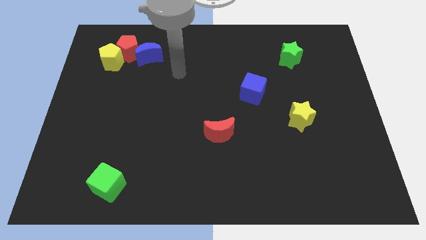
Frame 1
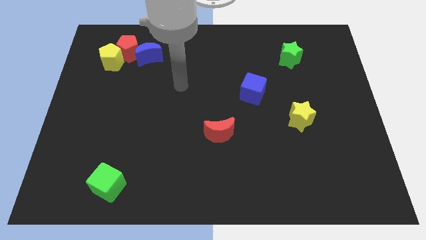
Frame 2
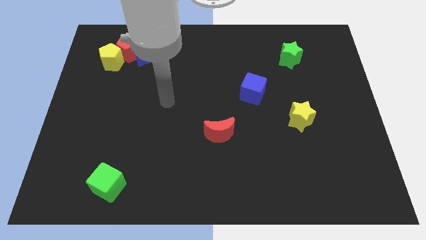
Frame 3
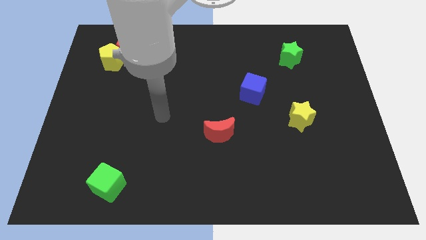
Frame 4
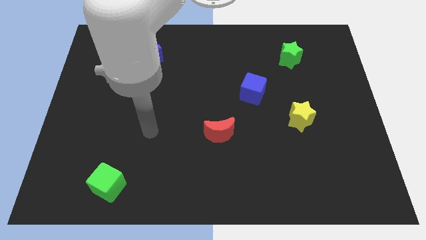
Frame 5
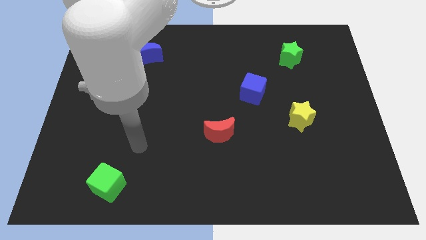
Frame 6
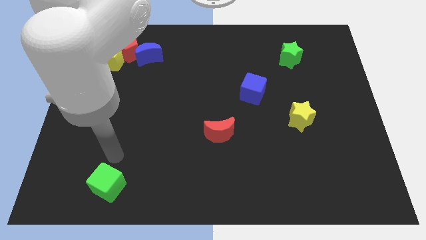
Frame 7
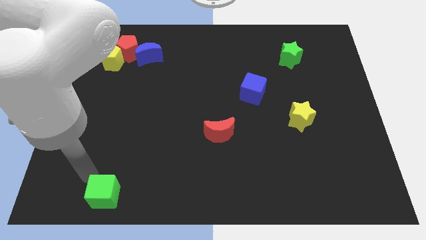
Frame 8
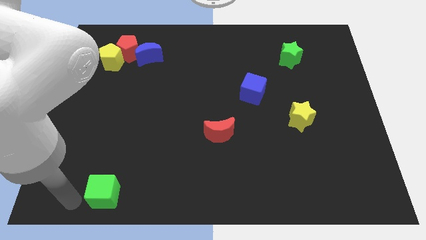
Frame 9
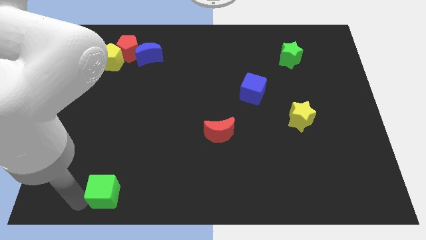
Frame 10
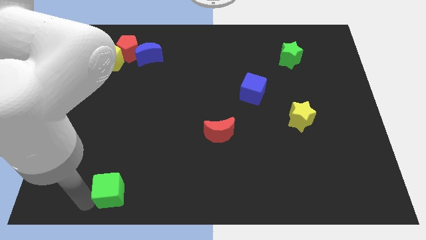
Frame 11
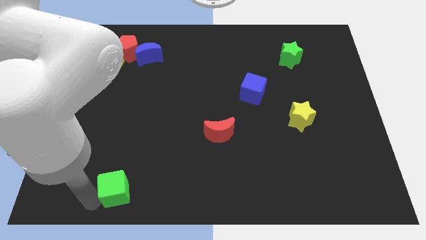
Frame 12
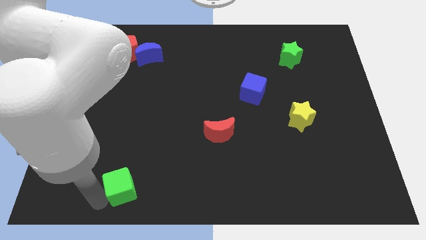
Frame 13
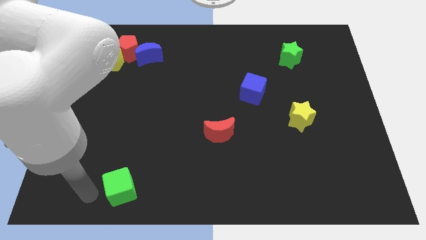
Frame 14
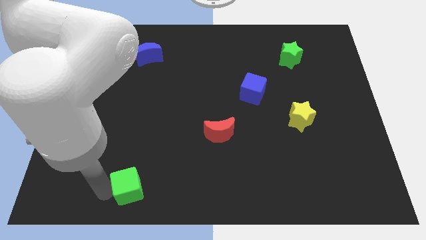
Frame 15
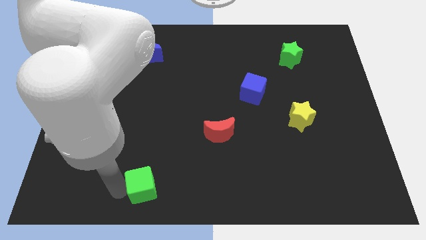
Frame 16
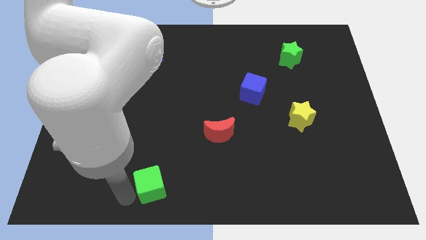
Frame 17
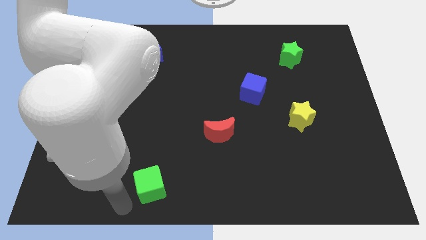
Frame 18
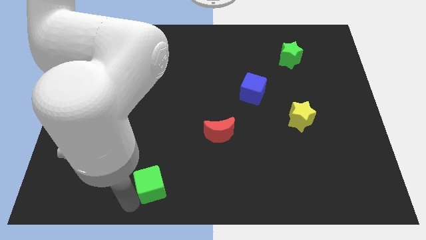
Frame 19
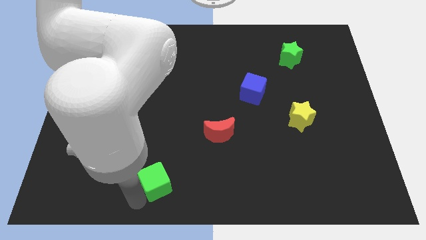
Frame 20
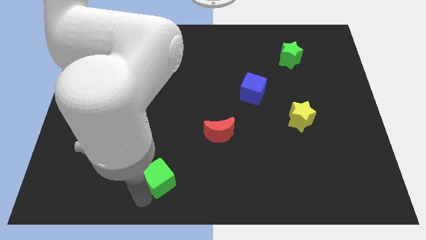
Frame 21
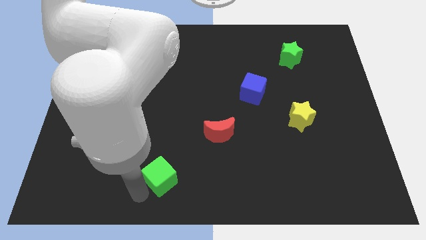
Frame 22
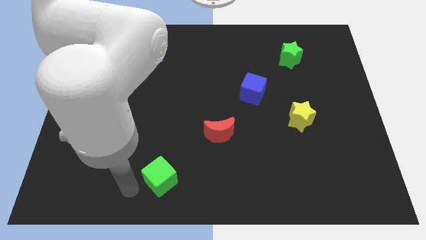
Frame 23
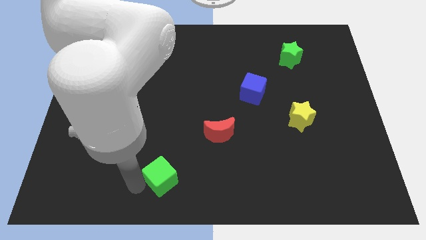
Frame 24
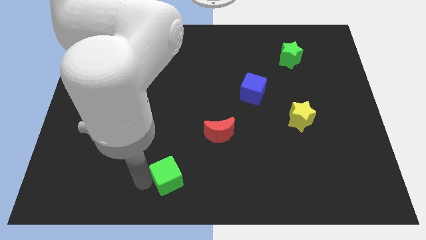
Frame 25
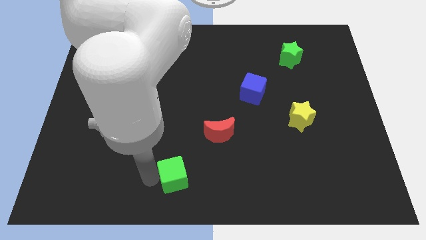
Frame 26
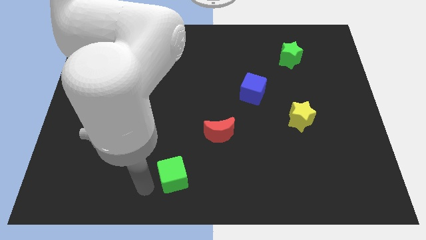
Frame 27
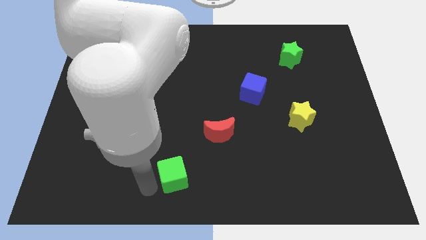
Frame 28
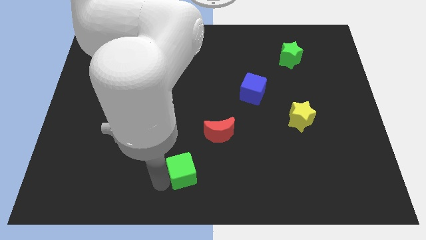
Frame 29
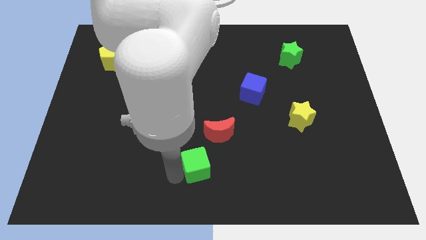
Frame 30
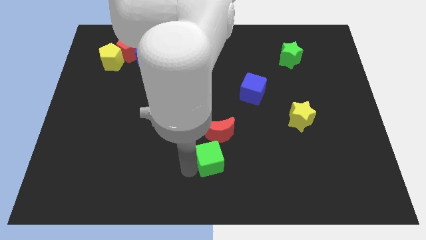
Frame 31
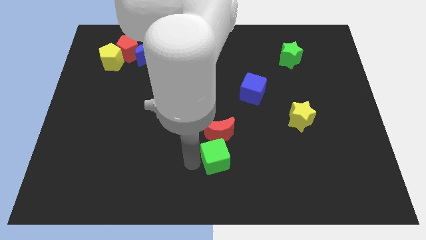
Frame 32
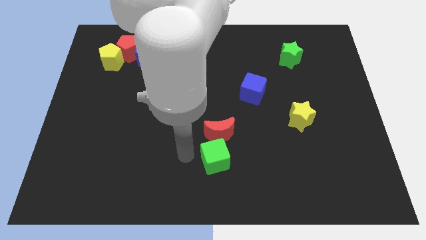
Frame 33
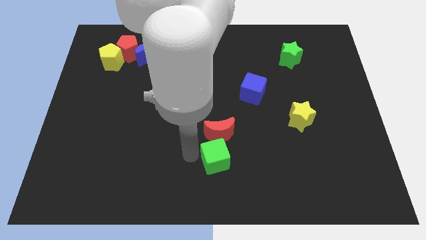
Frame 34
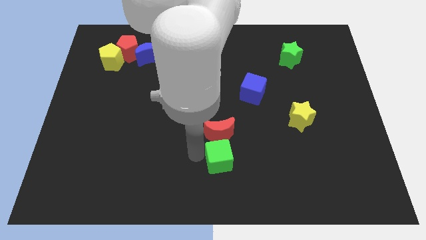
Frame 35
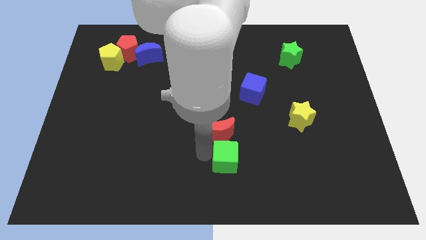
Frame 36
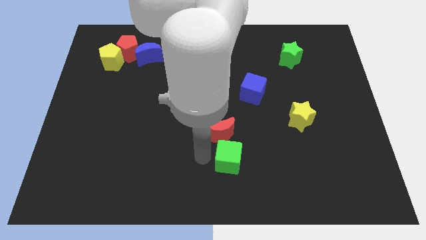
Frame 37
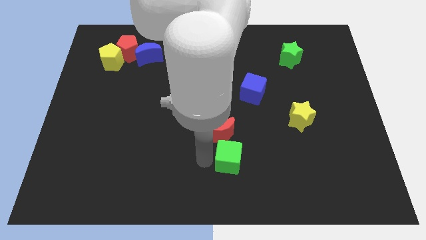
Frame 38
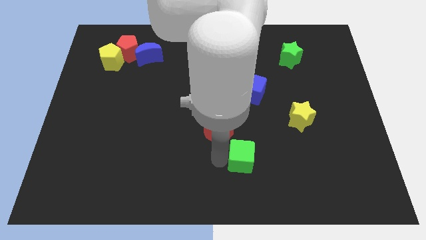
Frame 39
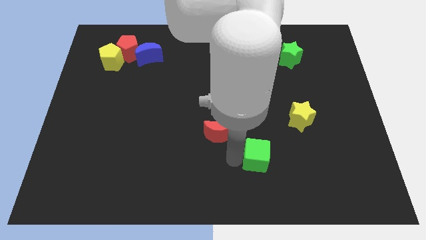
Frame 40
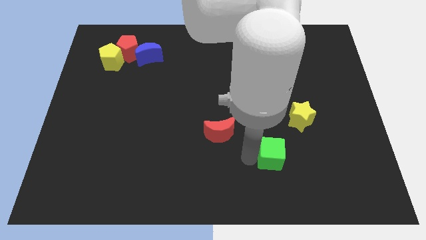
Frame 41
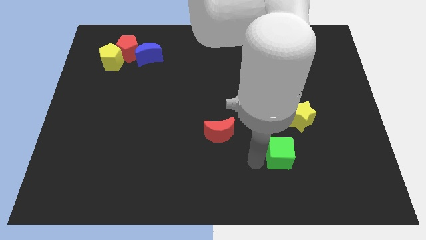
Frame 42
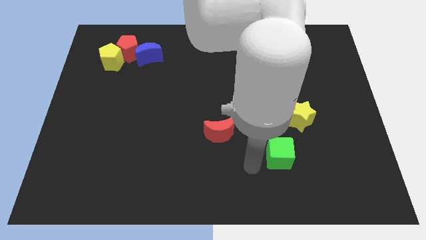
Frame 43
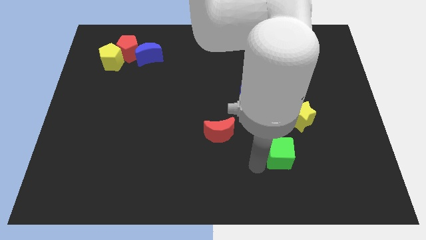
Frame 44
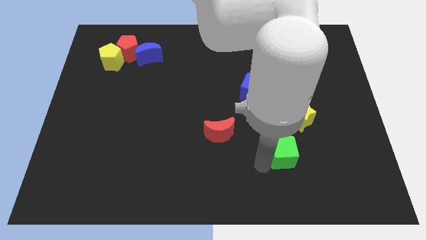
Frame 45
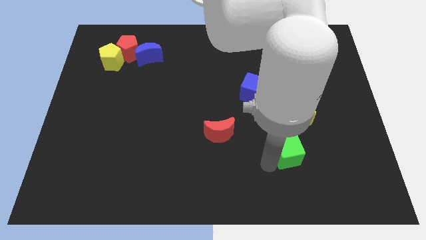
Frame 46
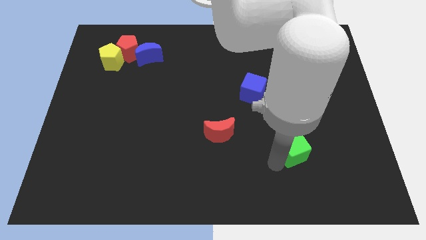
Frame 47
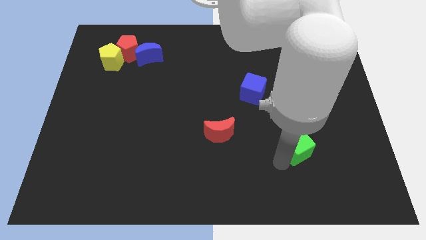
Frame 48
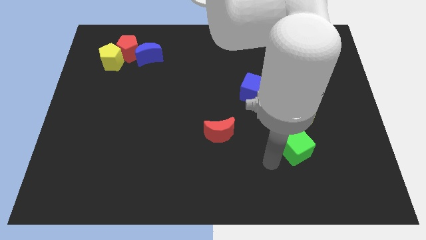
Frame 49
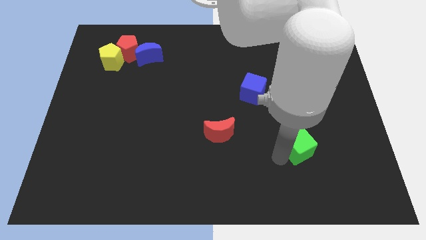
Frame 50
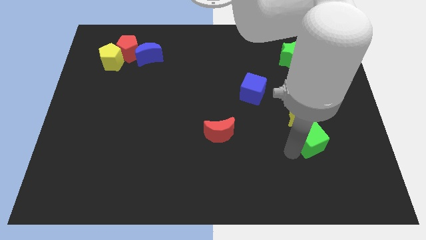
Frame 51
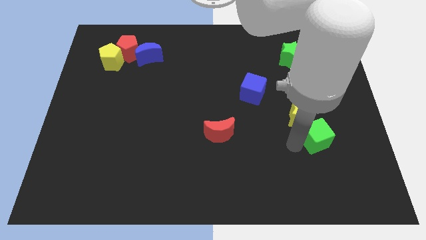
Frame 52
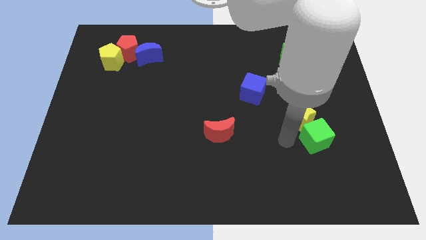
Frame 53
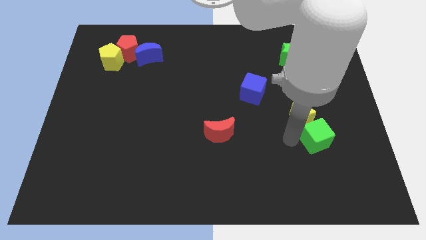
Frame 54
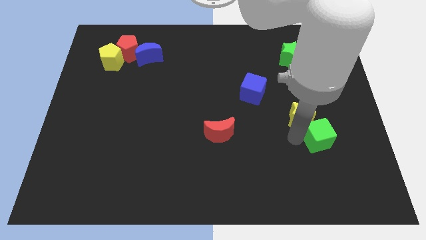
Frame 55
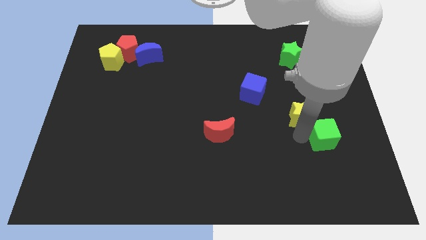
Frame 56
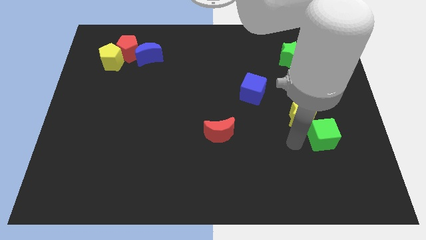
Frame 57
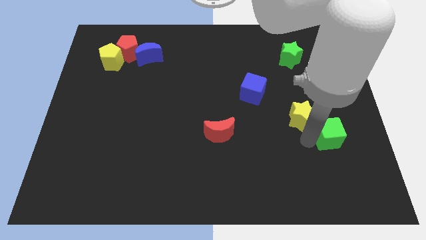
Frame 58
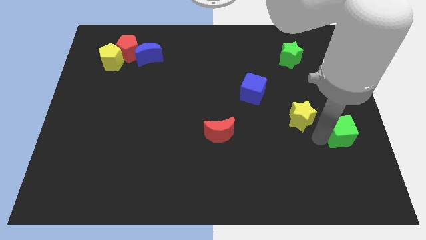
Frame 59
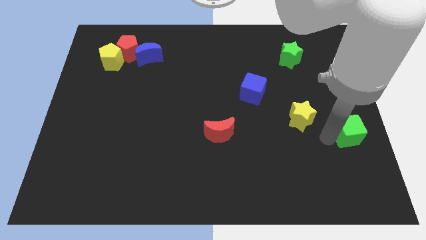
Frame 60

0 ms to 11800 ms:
put the green cube to the right side
